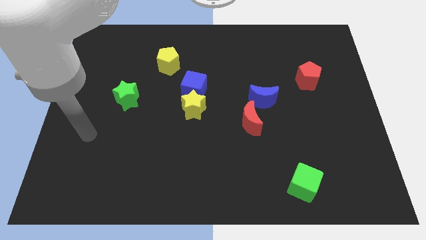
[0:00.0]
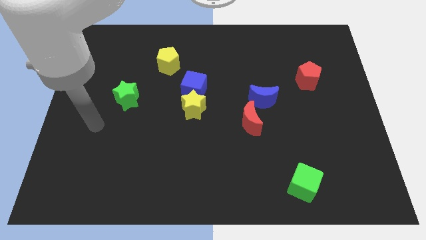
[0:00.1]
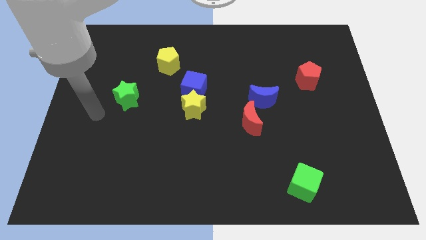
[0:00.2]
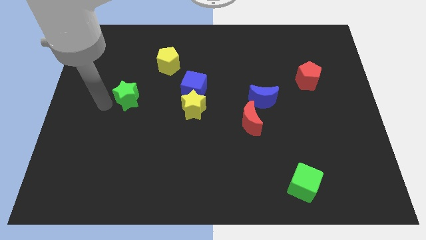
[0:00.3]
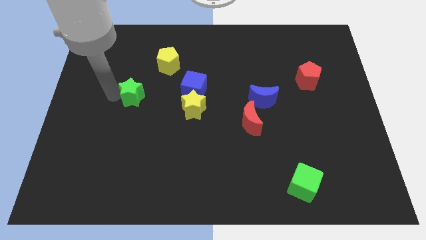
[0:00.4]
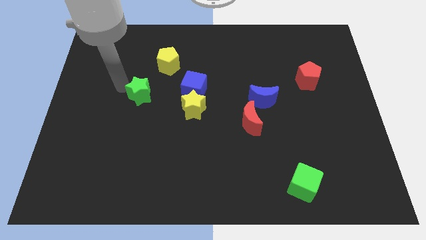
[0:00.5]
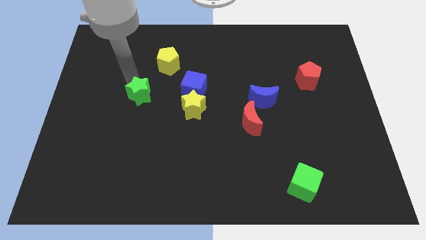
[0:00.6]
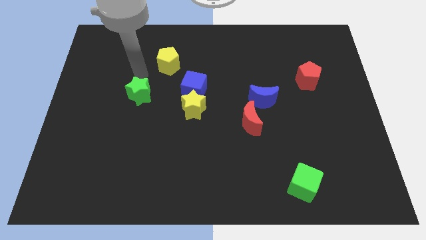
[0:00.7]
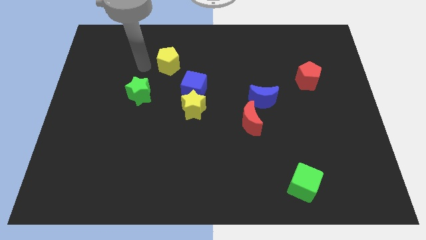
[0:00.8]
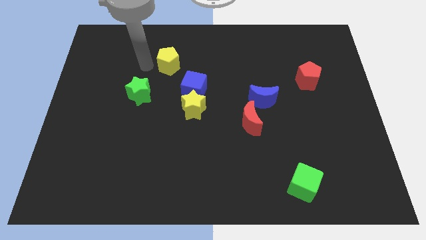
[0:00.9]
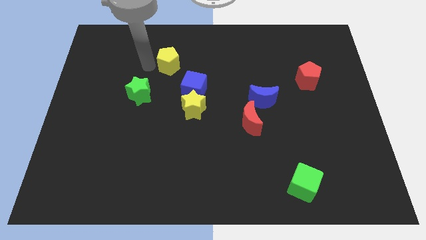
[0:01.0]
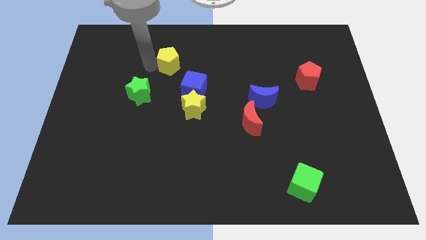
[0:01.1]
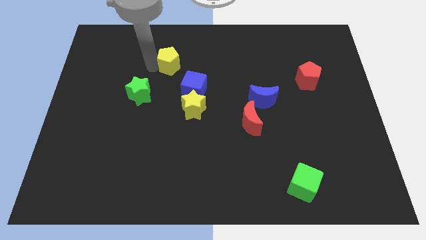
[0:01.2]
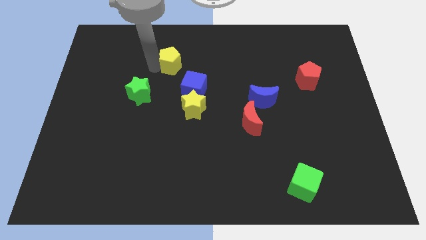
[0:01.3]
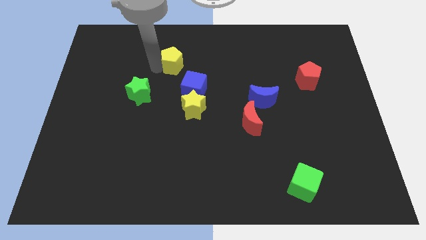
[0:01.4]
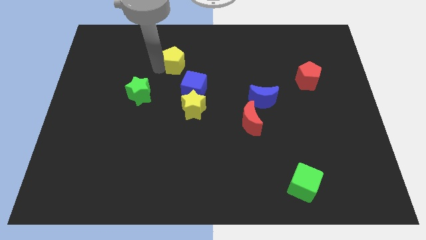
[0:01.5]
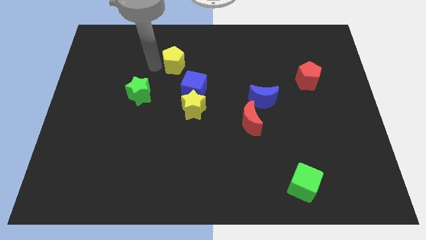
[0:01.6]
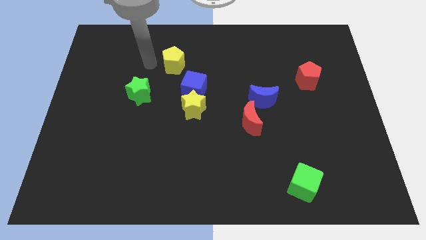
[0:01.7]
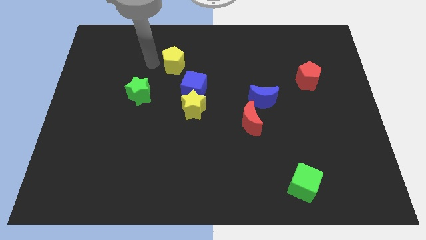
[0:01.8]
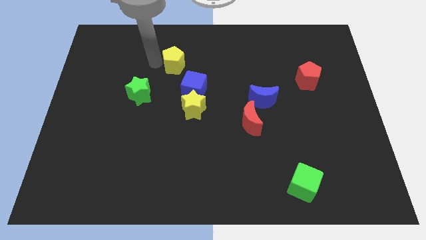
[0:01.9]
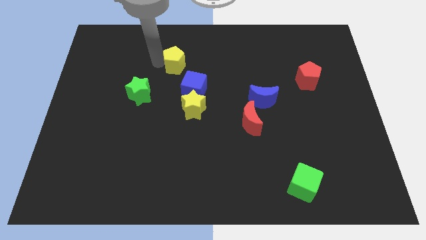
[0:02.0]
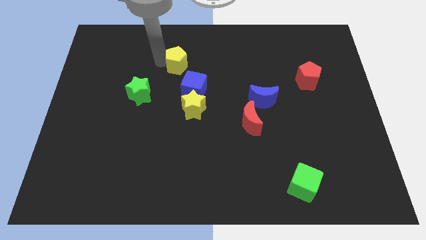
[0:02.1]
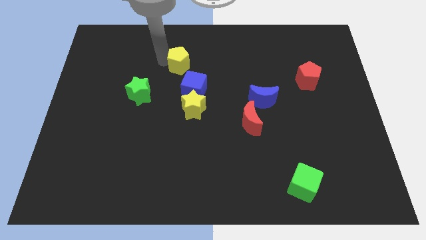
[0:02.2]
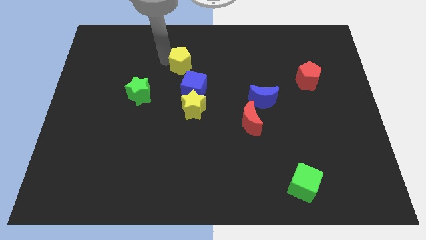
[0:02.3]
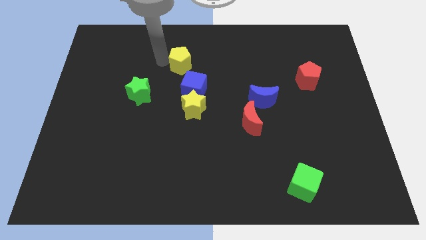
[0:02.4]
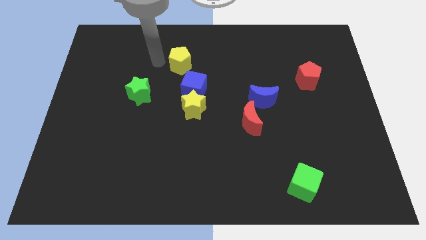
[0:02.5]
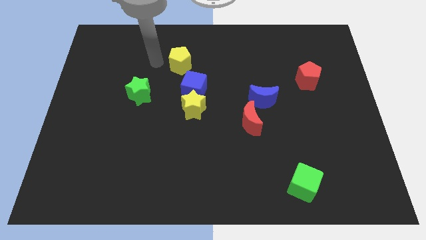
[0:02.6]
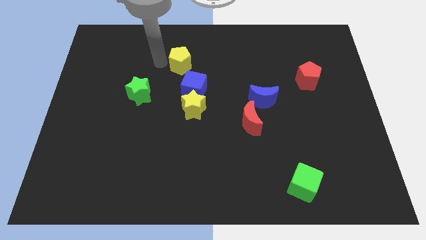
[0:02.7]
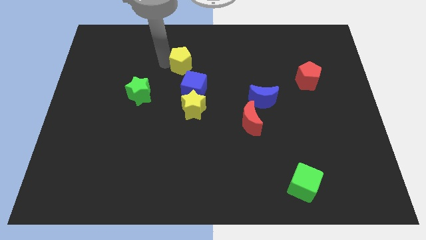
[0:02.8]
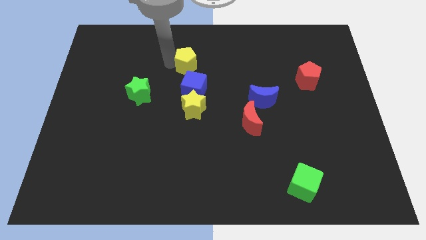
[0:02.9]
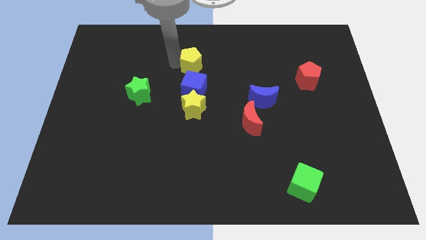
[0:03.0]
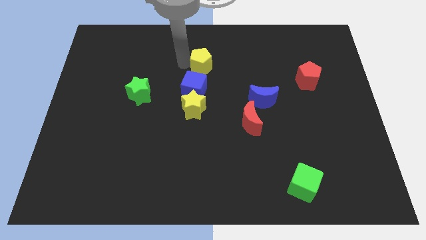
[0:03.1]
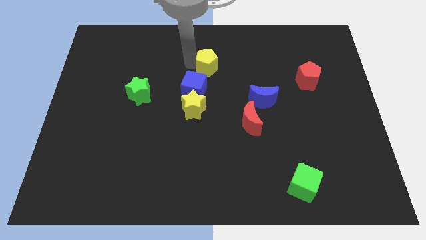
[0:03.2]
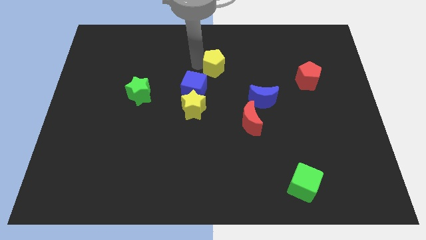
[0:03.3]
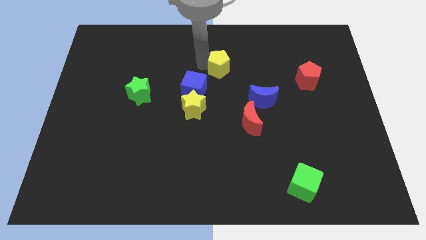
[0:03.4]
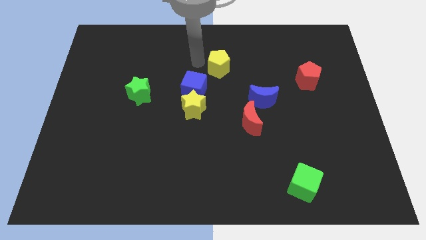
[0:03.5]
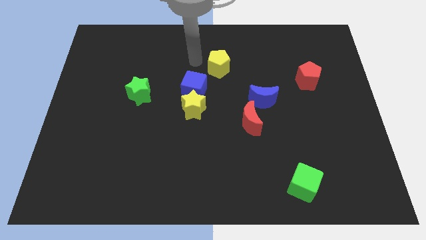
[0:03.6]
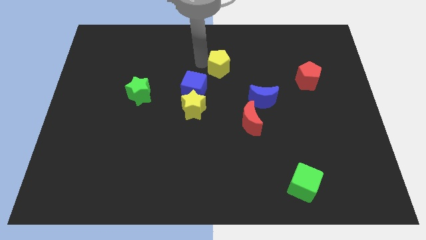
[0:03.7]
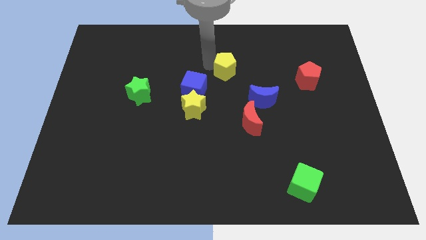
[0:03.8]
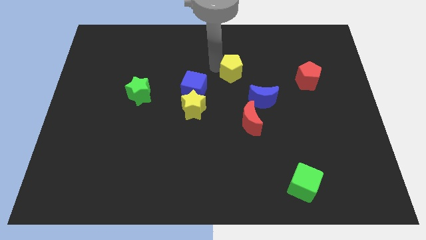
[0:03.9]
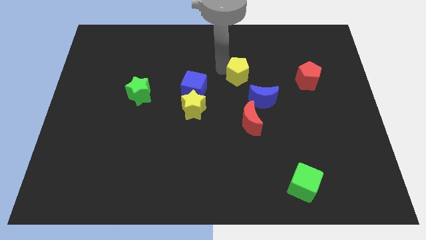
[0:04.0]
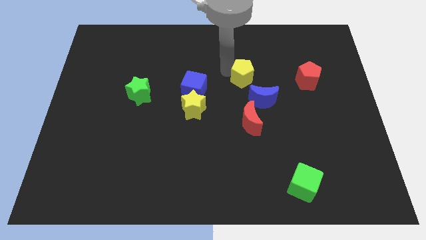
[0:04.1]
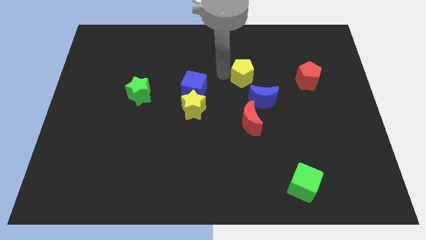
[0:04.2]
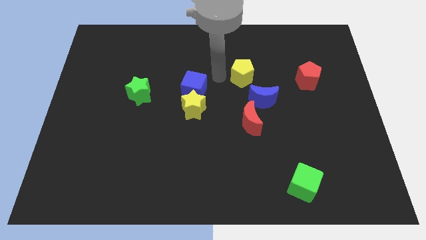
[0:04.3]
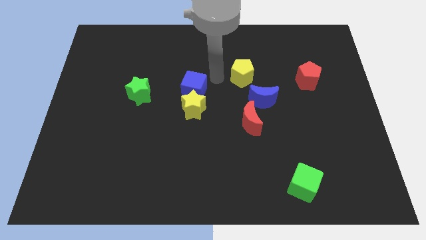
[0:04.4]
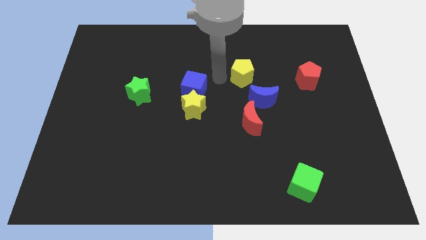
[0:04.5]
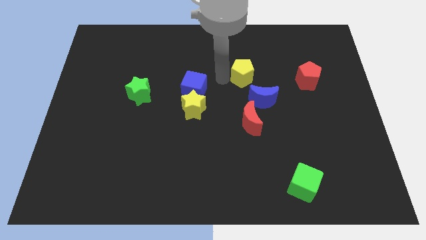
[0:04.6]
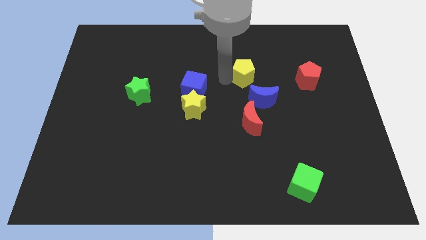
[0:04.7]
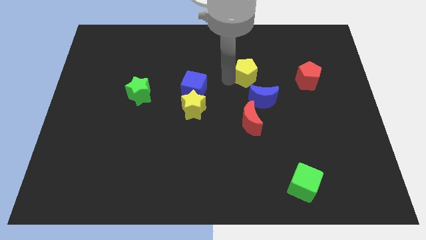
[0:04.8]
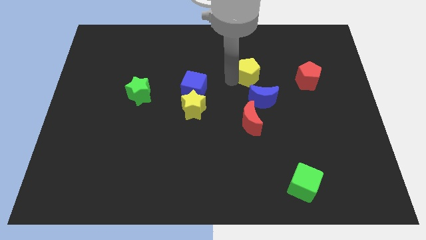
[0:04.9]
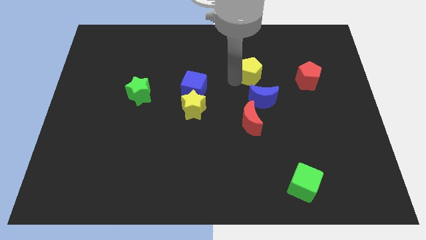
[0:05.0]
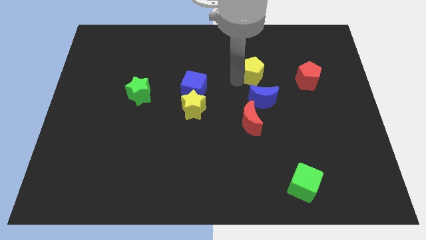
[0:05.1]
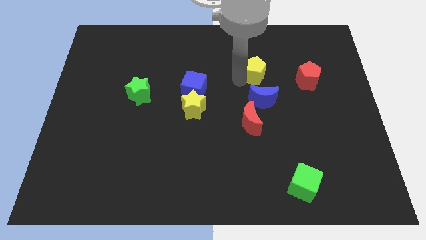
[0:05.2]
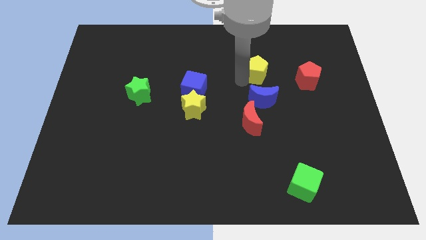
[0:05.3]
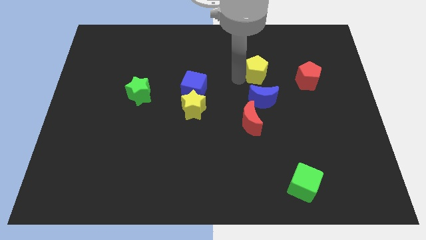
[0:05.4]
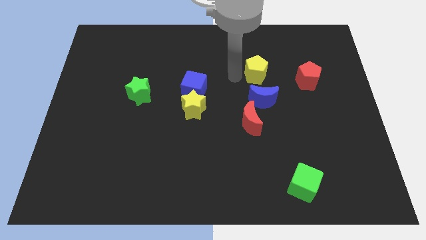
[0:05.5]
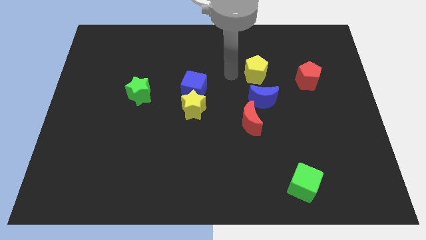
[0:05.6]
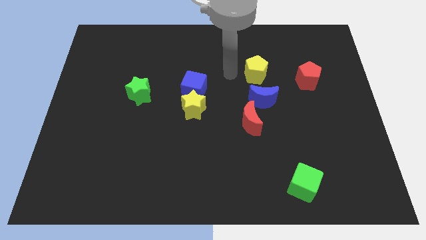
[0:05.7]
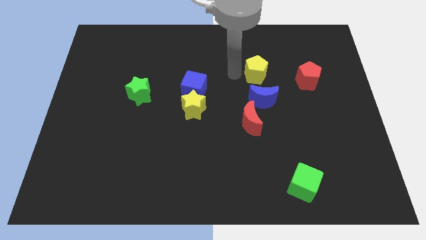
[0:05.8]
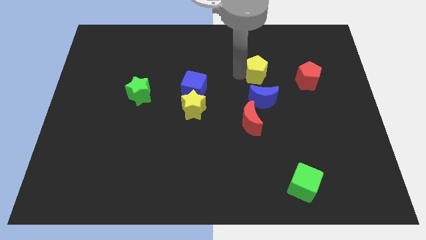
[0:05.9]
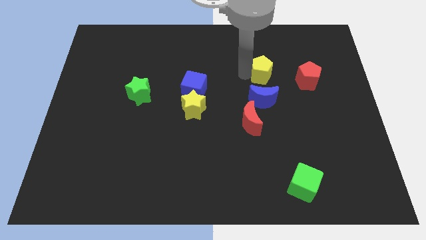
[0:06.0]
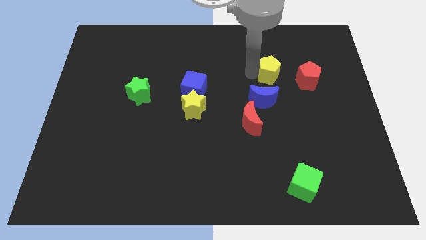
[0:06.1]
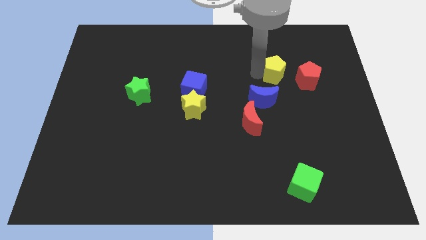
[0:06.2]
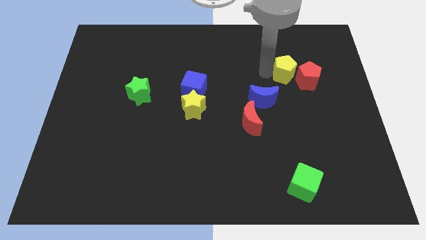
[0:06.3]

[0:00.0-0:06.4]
slide the yellow pentagon towards the red pentagon

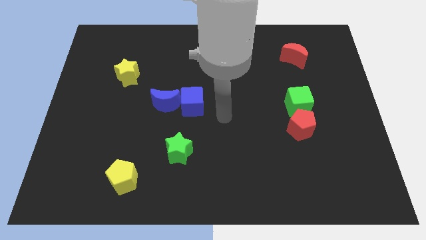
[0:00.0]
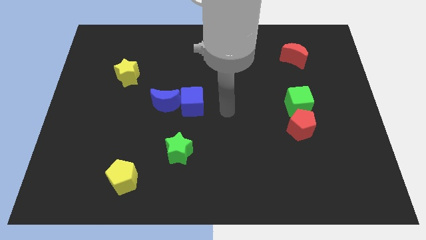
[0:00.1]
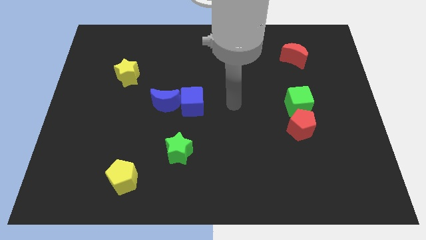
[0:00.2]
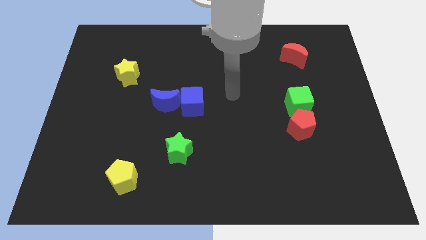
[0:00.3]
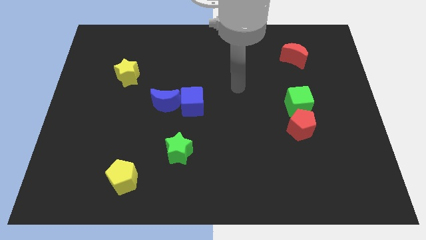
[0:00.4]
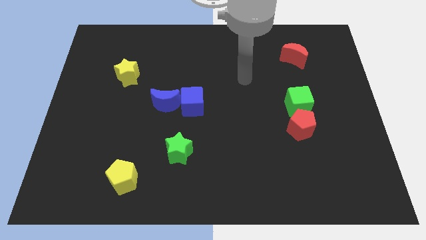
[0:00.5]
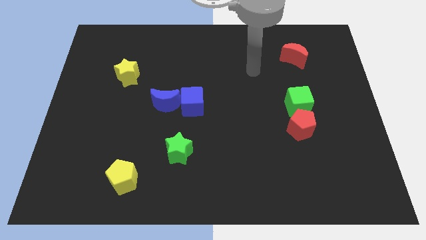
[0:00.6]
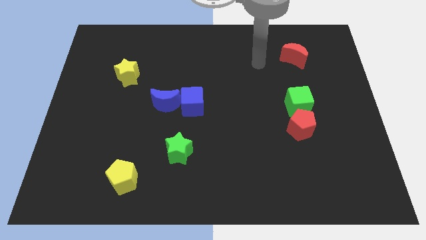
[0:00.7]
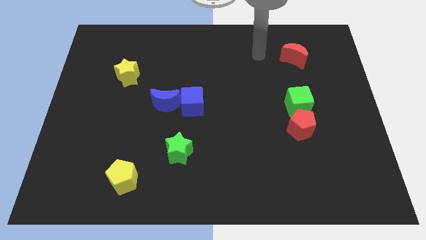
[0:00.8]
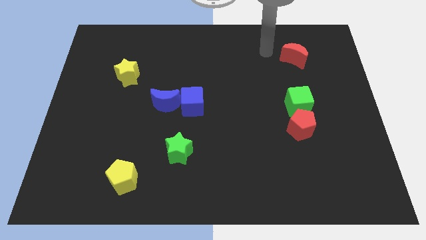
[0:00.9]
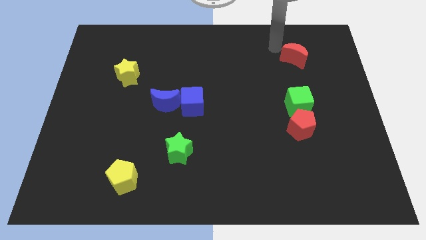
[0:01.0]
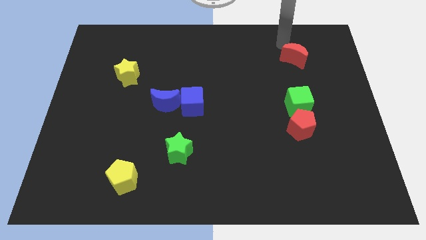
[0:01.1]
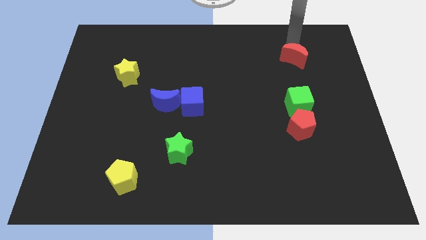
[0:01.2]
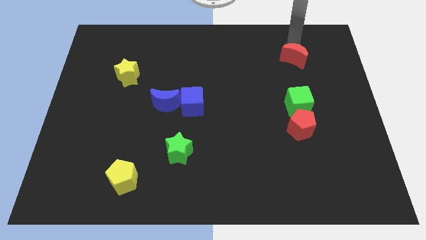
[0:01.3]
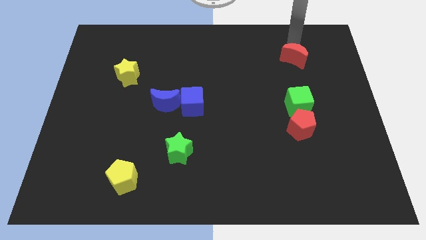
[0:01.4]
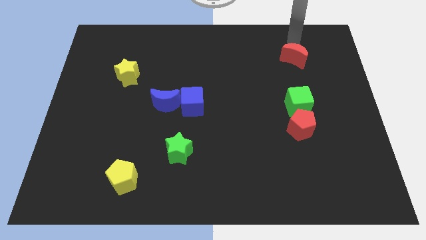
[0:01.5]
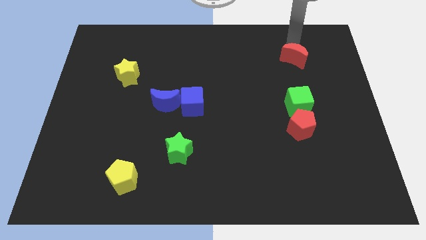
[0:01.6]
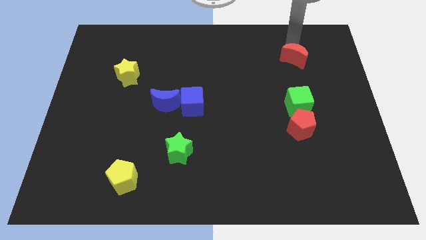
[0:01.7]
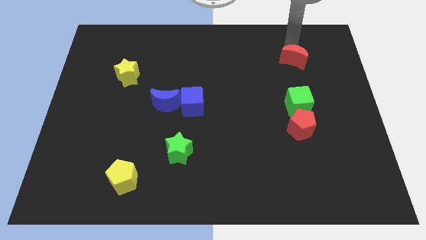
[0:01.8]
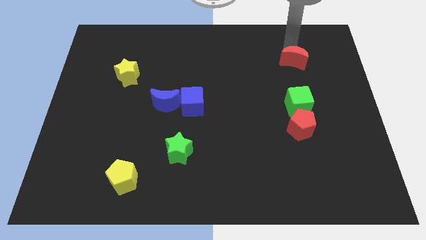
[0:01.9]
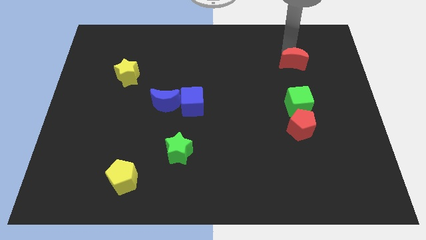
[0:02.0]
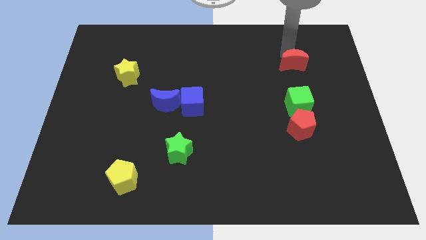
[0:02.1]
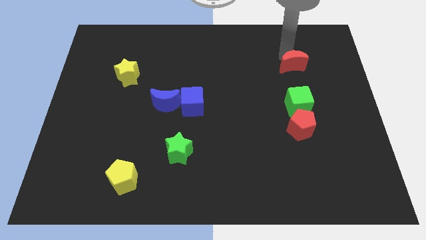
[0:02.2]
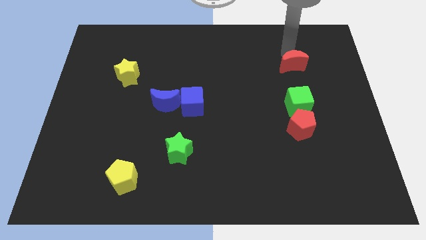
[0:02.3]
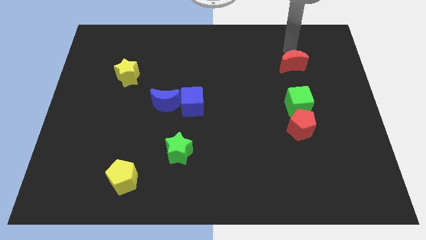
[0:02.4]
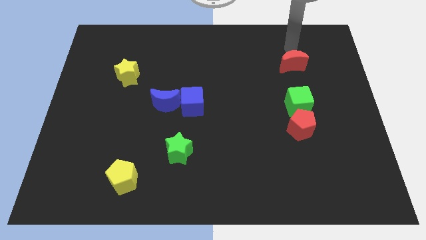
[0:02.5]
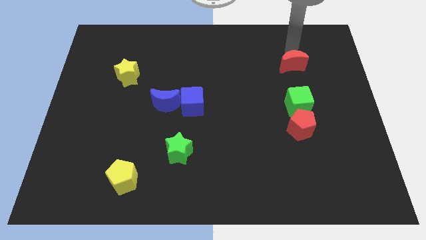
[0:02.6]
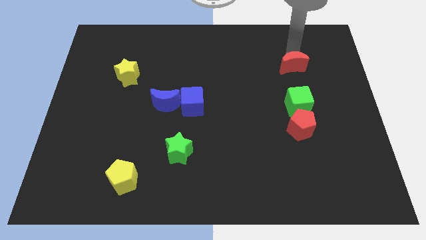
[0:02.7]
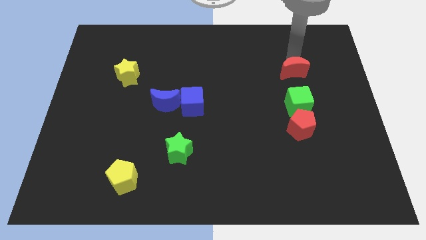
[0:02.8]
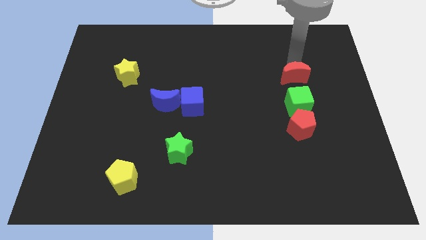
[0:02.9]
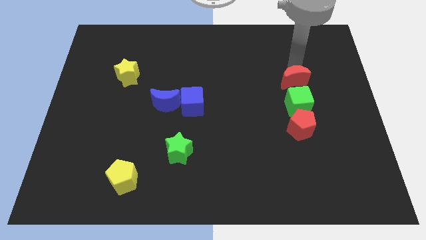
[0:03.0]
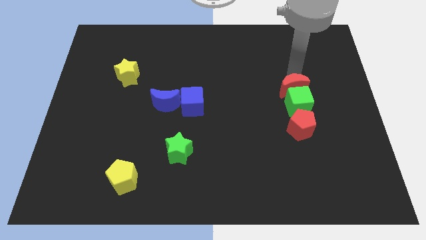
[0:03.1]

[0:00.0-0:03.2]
slide the red moon close to the green cube
